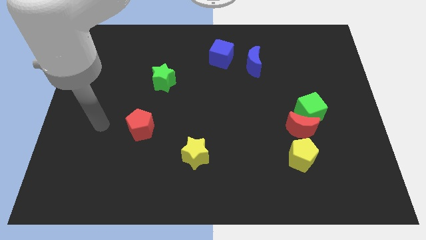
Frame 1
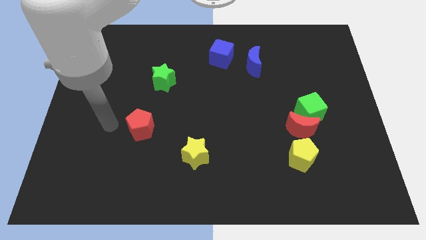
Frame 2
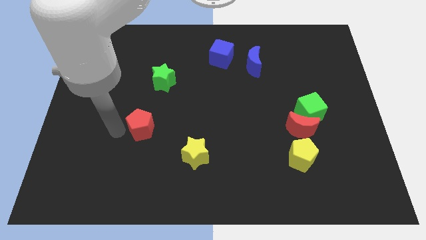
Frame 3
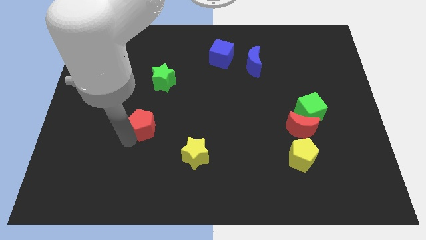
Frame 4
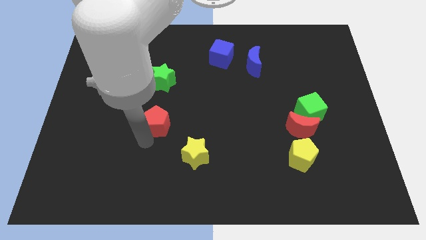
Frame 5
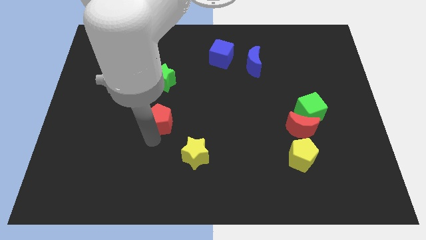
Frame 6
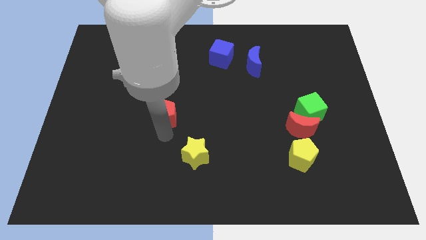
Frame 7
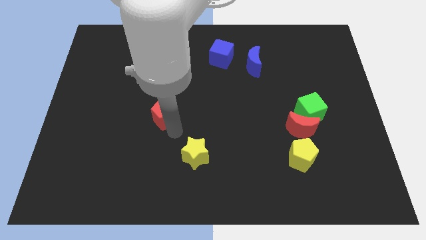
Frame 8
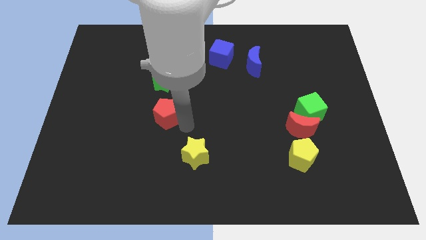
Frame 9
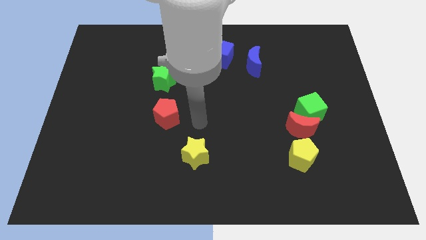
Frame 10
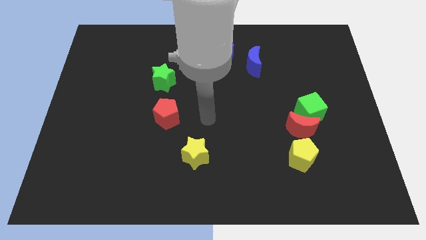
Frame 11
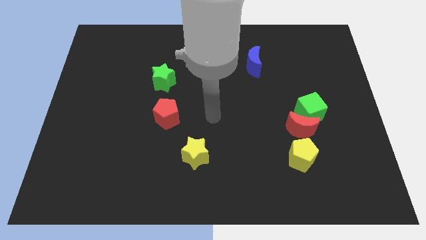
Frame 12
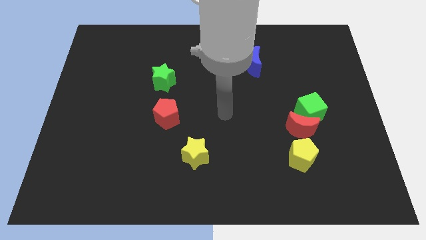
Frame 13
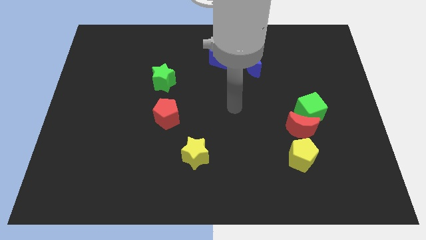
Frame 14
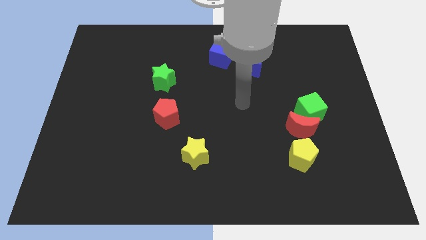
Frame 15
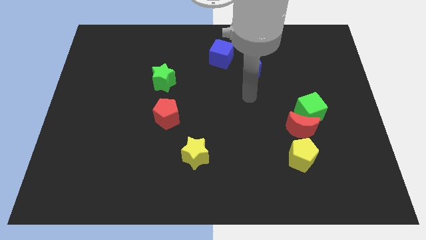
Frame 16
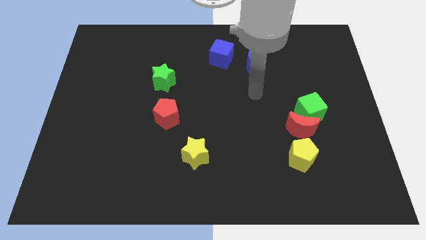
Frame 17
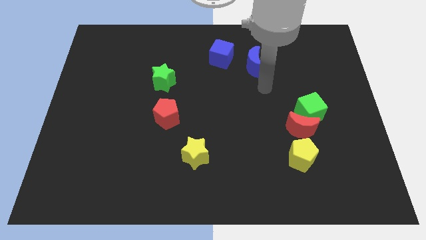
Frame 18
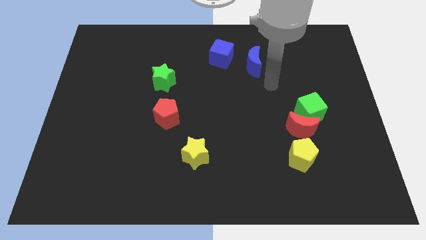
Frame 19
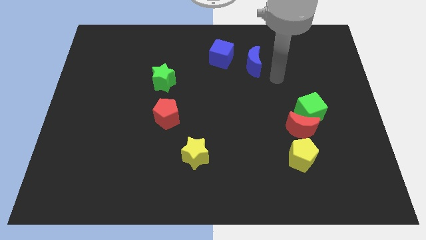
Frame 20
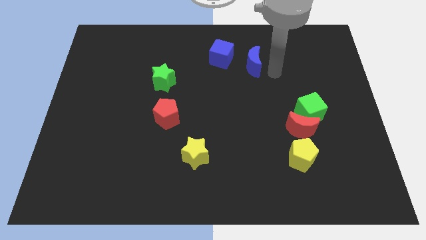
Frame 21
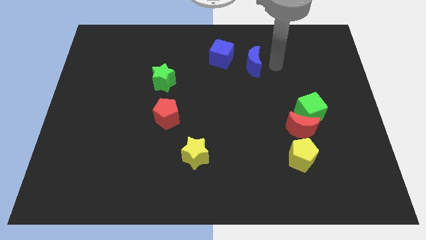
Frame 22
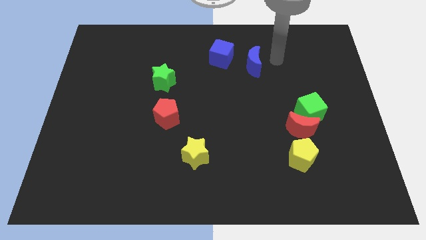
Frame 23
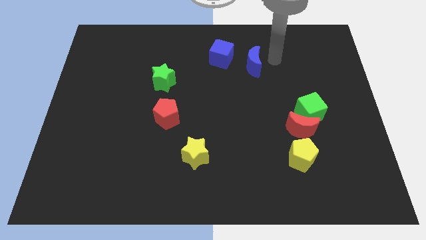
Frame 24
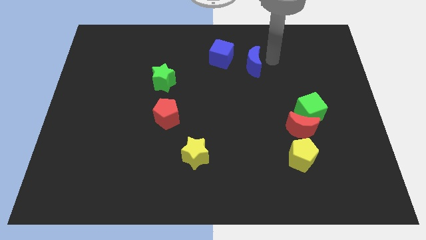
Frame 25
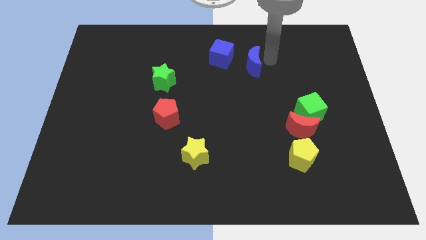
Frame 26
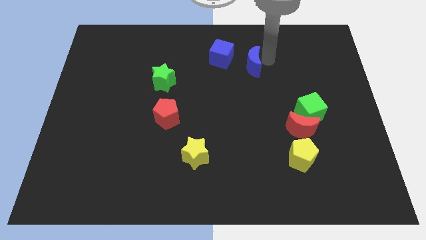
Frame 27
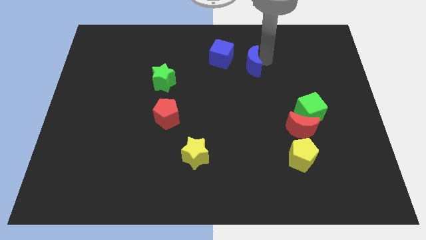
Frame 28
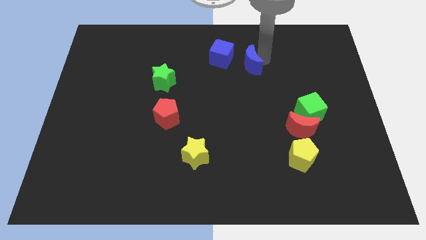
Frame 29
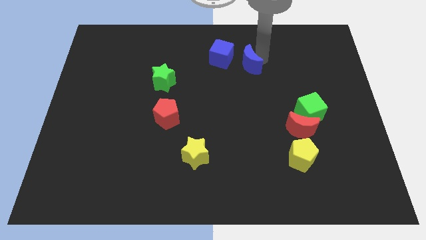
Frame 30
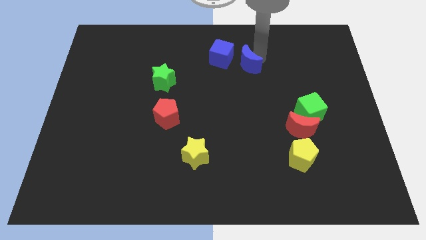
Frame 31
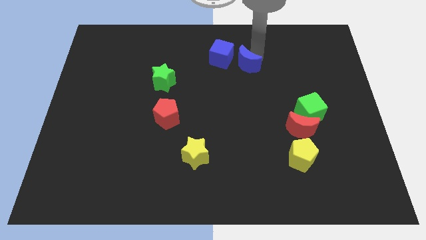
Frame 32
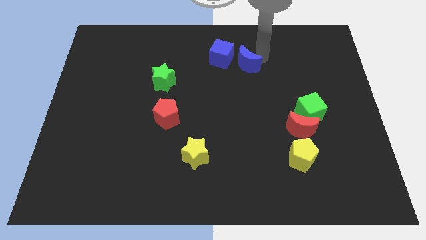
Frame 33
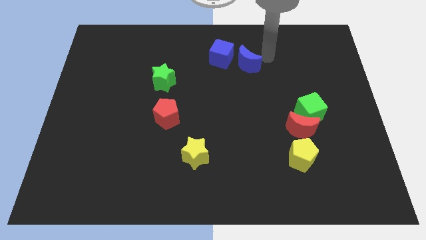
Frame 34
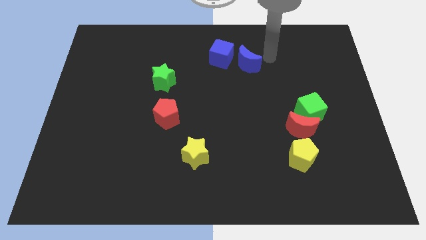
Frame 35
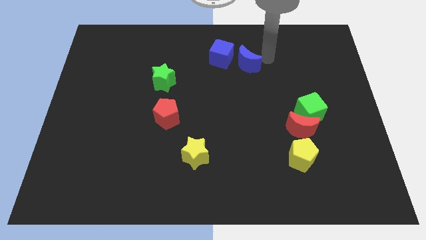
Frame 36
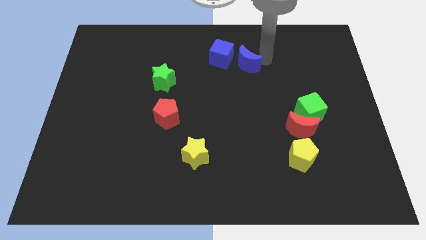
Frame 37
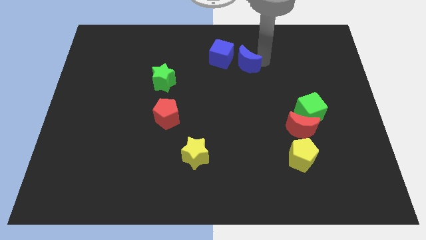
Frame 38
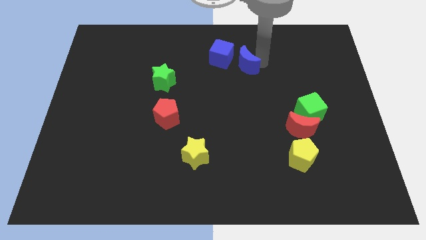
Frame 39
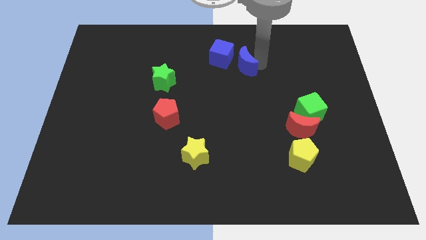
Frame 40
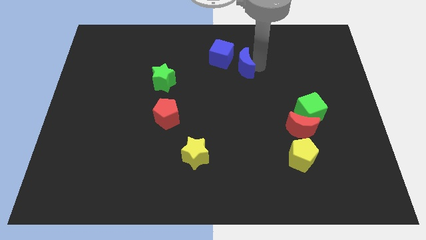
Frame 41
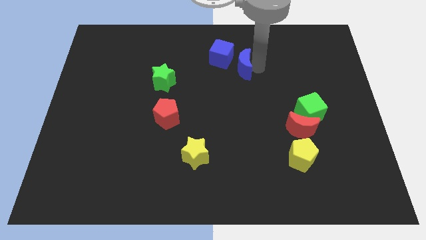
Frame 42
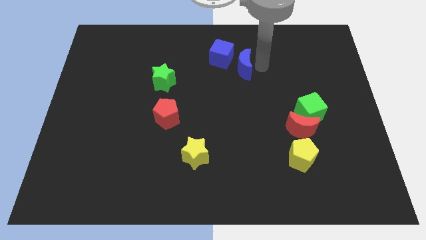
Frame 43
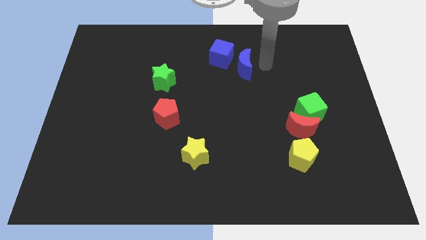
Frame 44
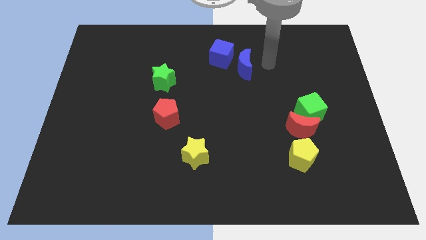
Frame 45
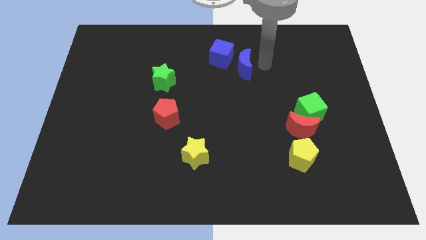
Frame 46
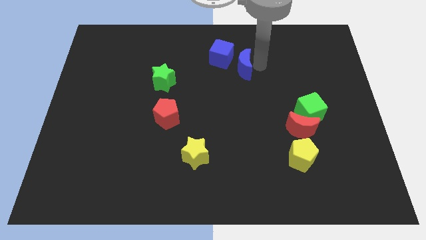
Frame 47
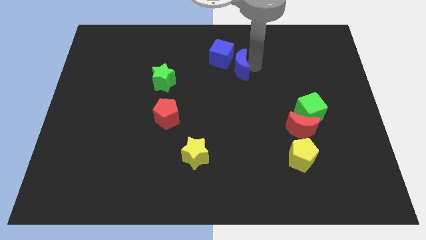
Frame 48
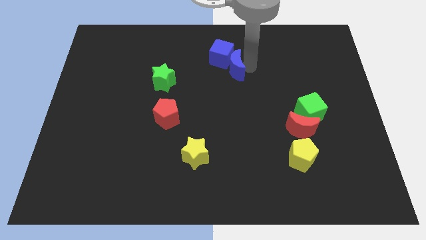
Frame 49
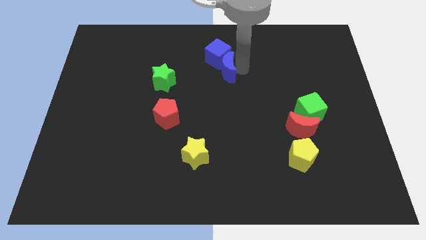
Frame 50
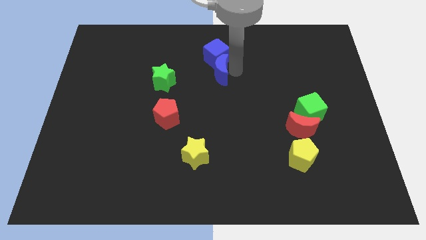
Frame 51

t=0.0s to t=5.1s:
slide the blue moon left a little

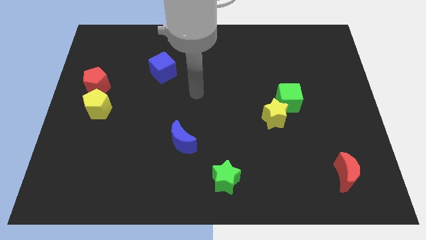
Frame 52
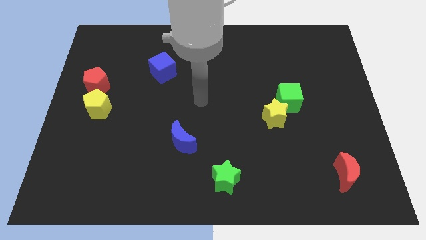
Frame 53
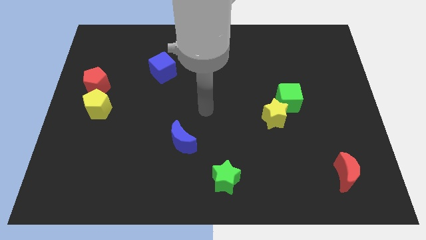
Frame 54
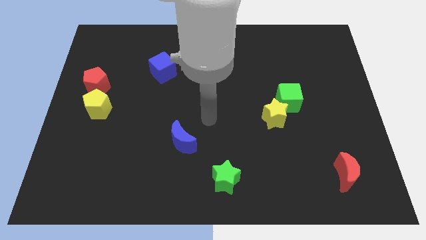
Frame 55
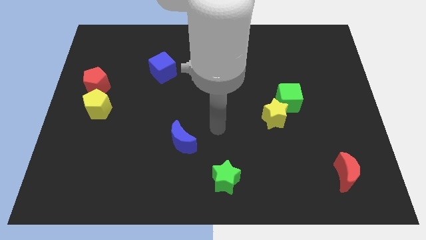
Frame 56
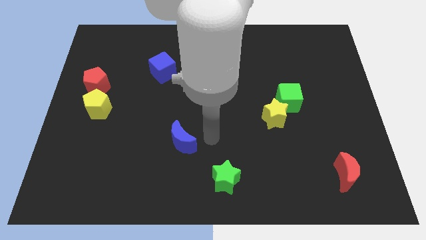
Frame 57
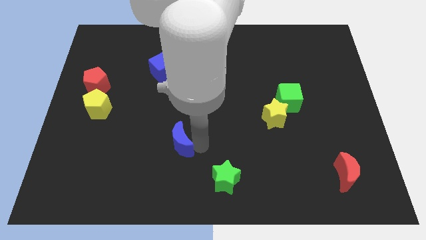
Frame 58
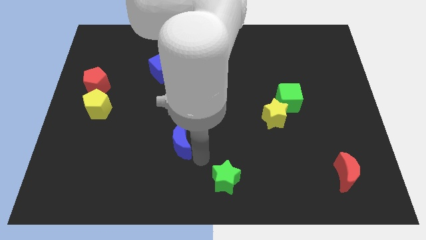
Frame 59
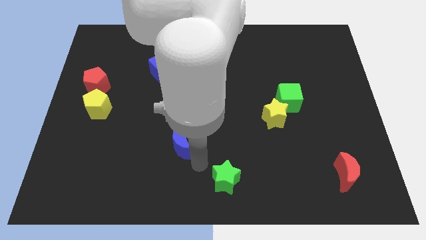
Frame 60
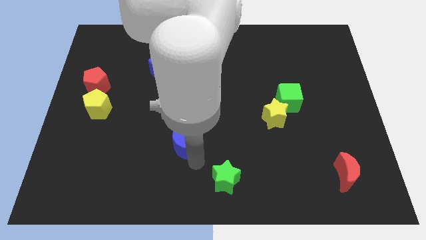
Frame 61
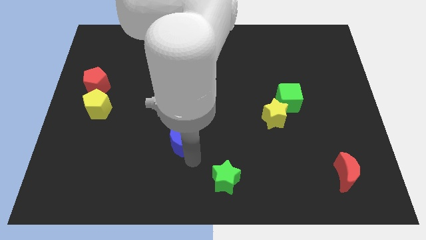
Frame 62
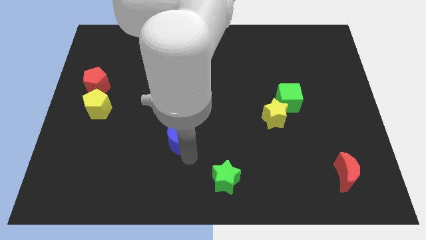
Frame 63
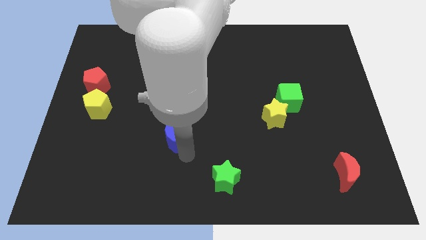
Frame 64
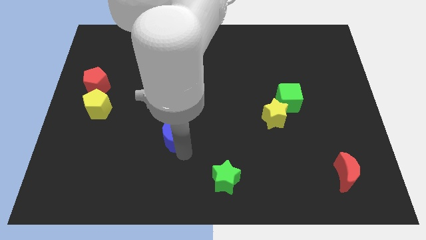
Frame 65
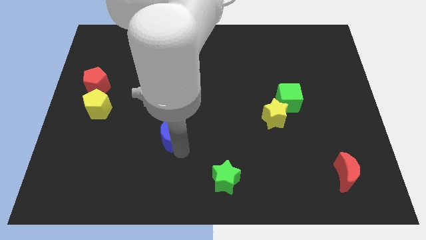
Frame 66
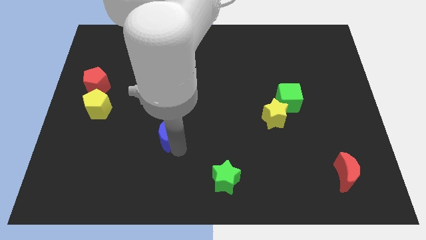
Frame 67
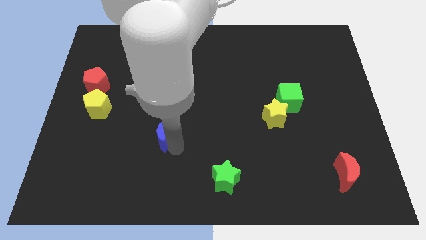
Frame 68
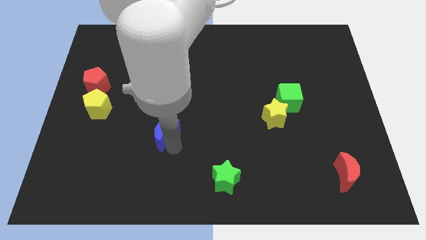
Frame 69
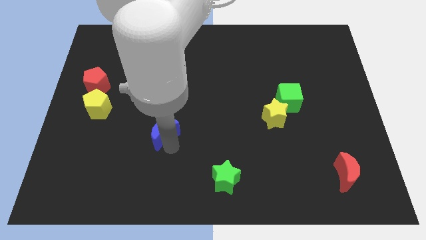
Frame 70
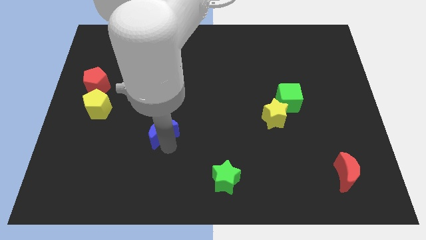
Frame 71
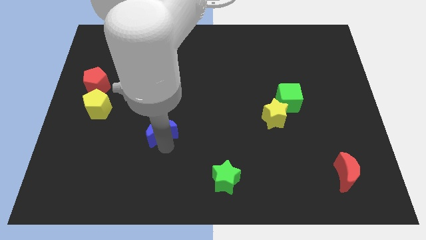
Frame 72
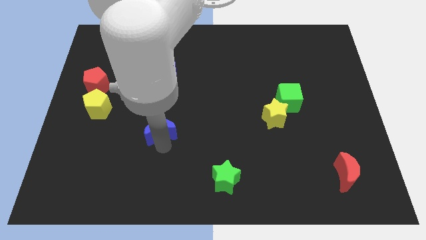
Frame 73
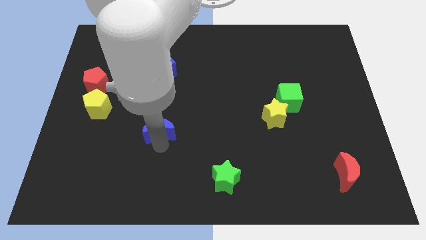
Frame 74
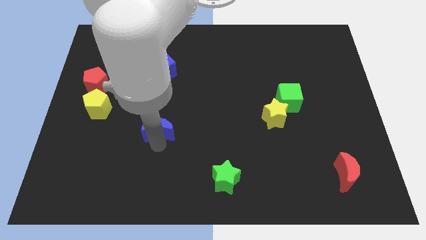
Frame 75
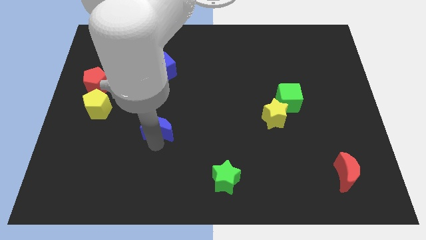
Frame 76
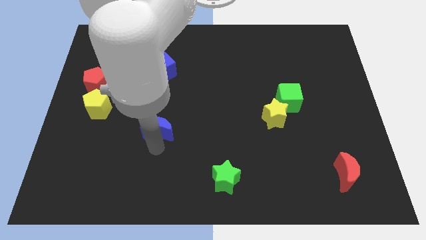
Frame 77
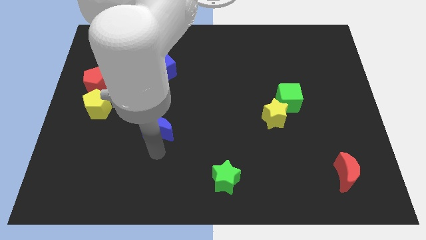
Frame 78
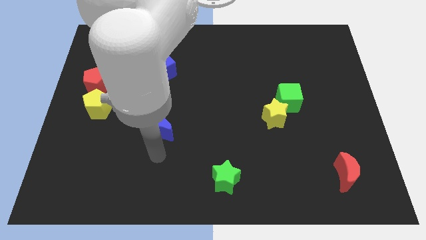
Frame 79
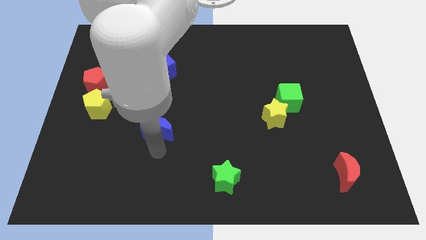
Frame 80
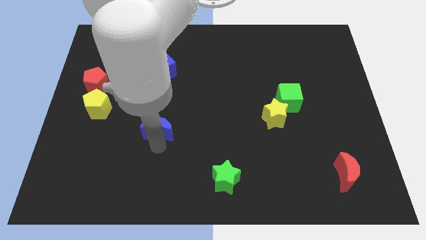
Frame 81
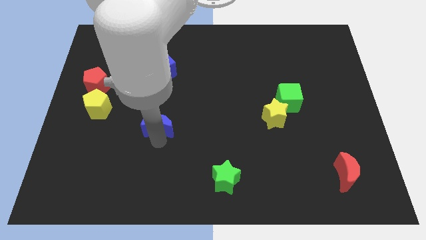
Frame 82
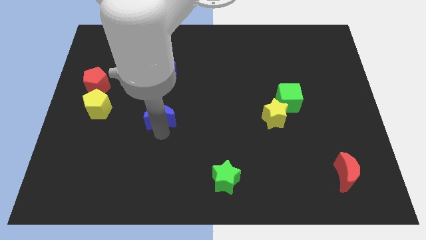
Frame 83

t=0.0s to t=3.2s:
slightly move the blue moon upwards and left
